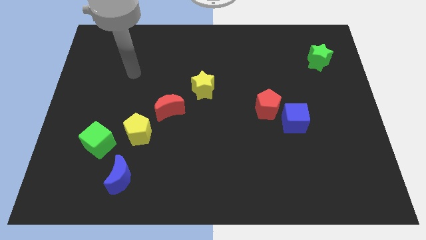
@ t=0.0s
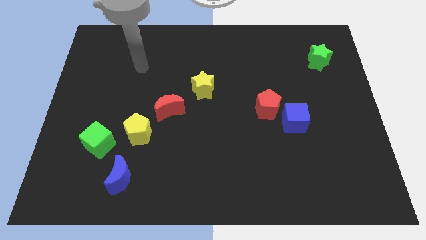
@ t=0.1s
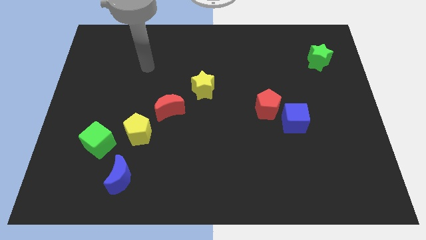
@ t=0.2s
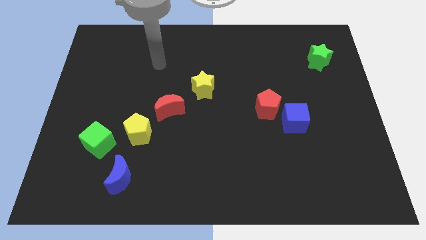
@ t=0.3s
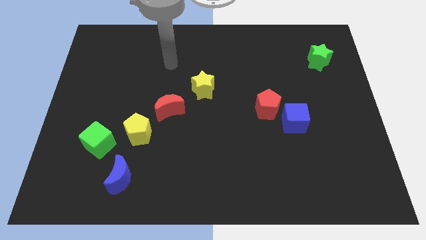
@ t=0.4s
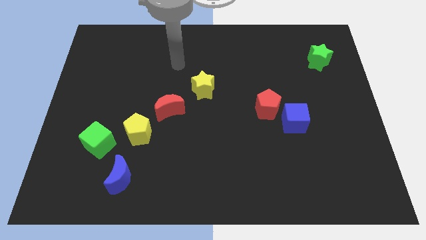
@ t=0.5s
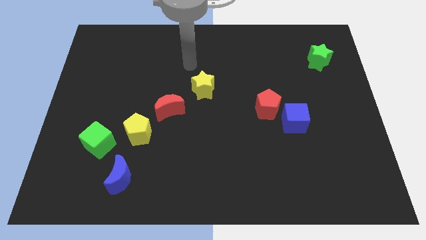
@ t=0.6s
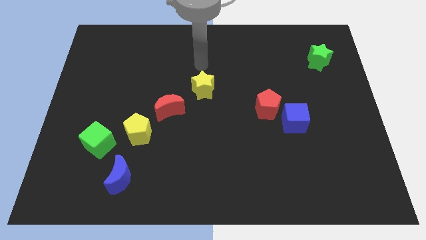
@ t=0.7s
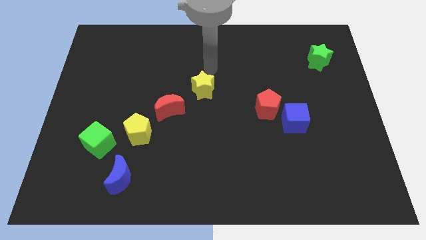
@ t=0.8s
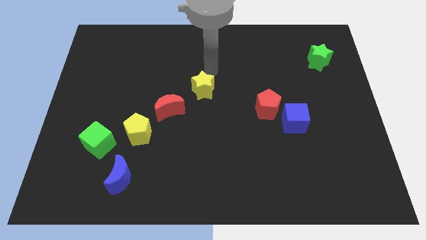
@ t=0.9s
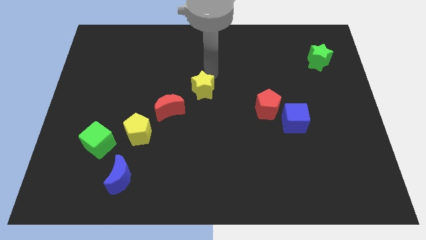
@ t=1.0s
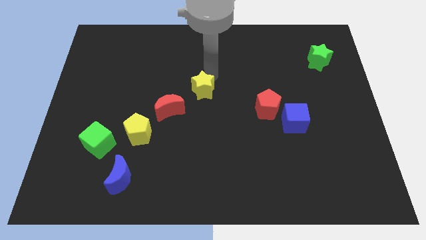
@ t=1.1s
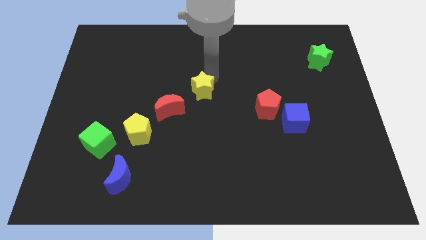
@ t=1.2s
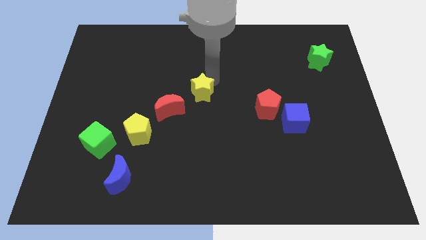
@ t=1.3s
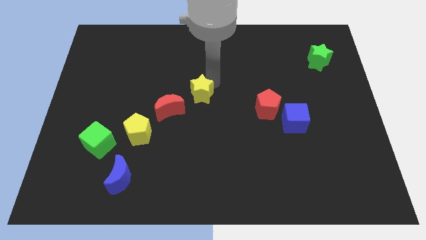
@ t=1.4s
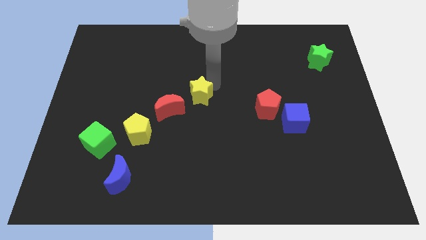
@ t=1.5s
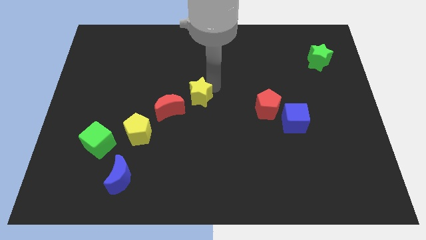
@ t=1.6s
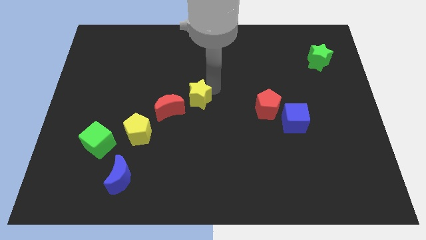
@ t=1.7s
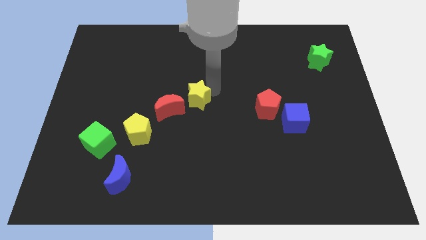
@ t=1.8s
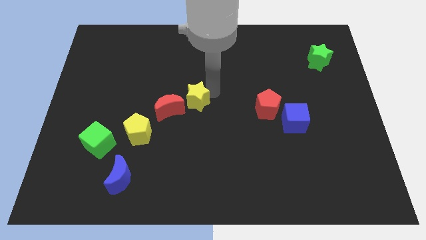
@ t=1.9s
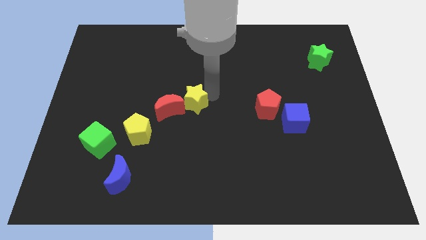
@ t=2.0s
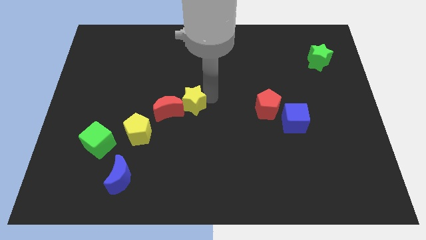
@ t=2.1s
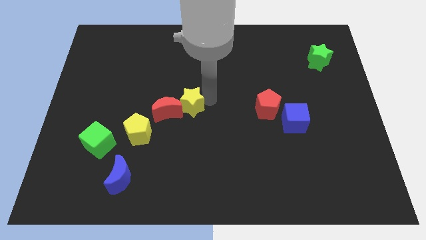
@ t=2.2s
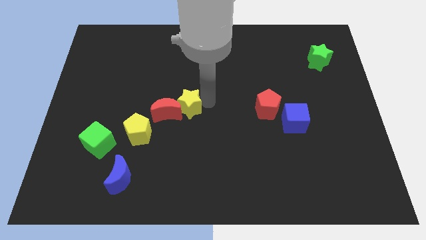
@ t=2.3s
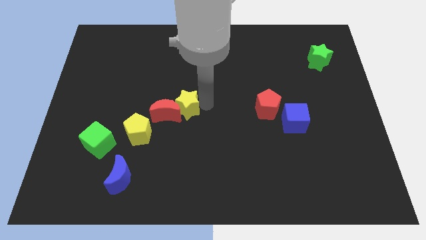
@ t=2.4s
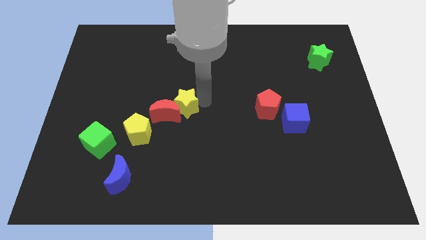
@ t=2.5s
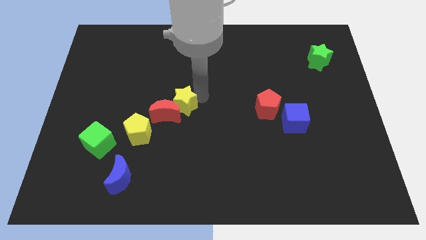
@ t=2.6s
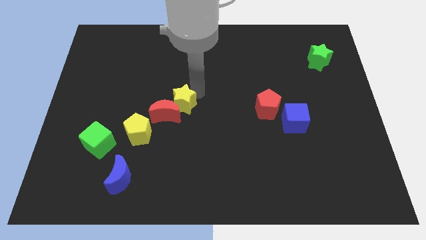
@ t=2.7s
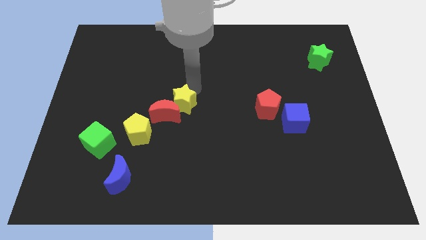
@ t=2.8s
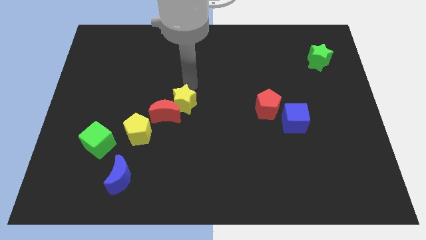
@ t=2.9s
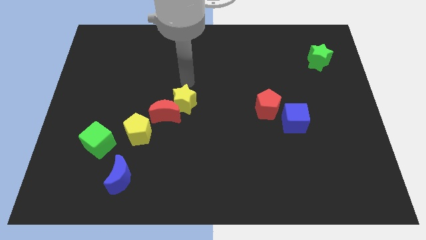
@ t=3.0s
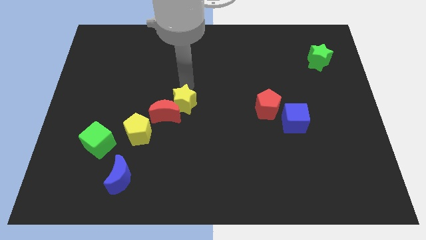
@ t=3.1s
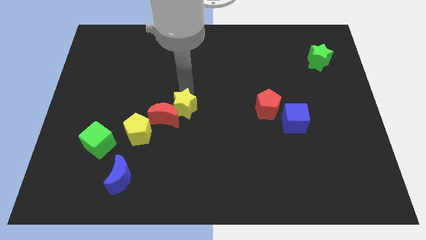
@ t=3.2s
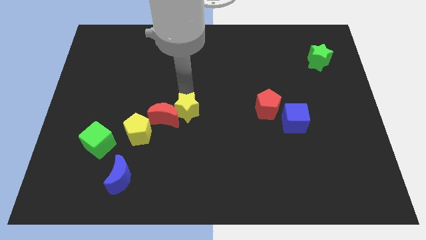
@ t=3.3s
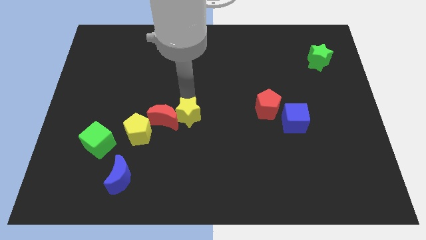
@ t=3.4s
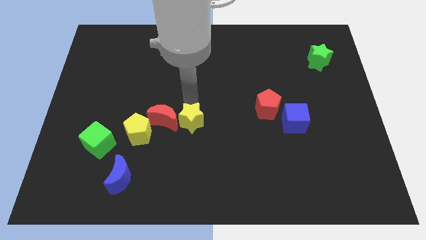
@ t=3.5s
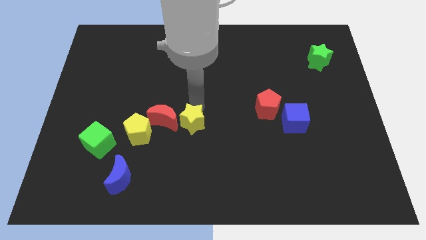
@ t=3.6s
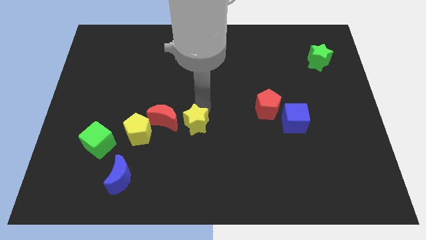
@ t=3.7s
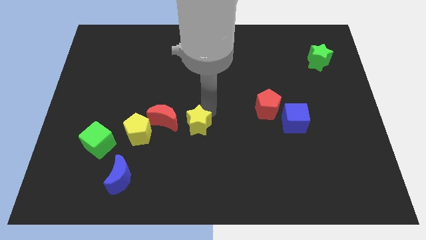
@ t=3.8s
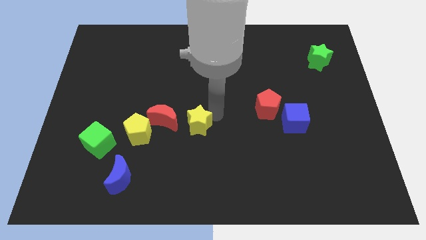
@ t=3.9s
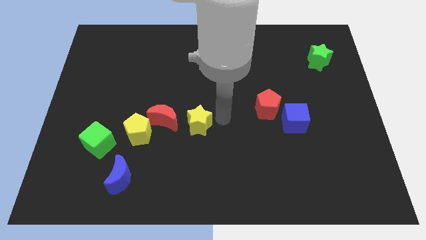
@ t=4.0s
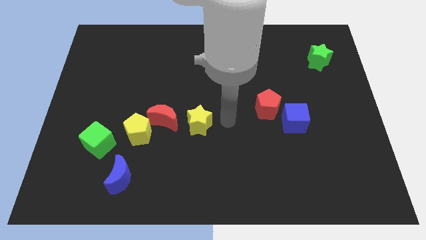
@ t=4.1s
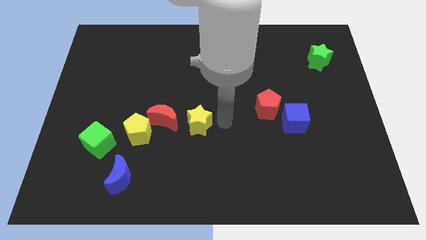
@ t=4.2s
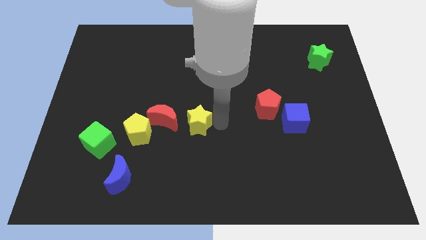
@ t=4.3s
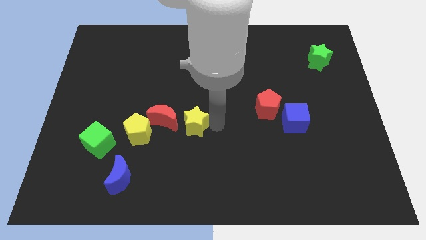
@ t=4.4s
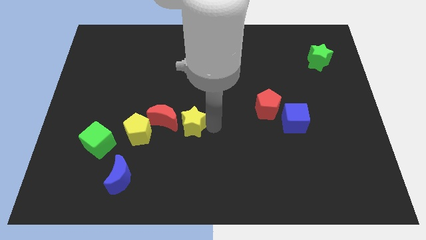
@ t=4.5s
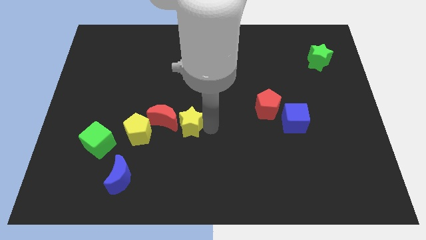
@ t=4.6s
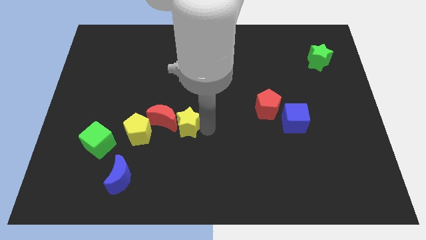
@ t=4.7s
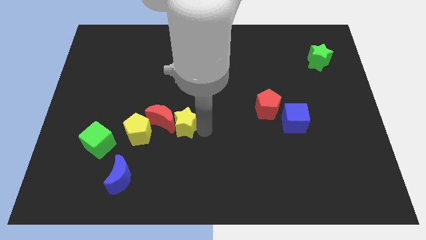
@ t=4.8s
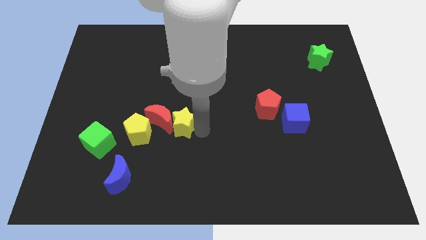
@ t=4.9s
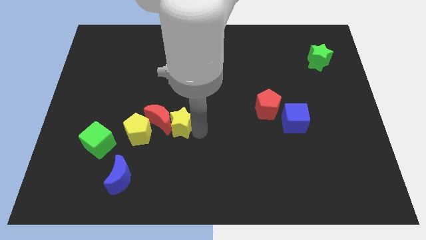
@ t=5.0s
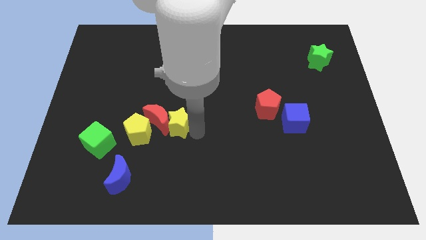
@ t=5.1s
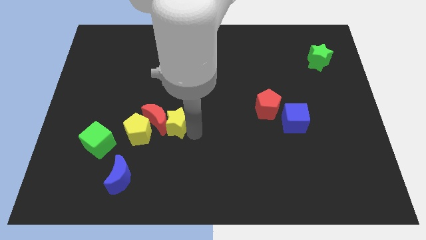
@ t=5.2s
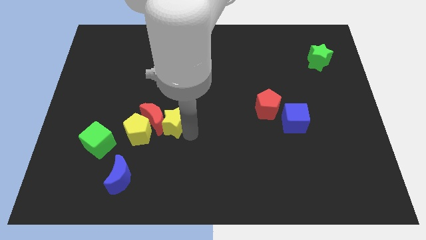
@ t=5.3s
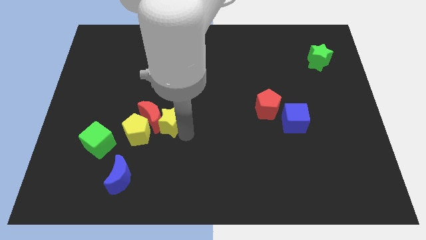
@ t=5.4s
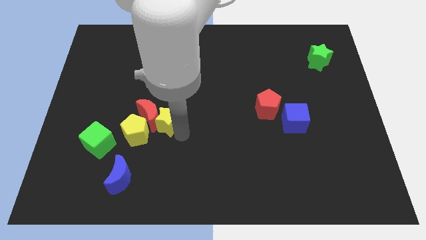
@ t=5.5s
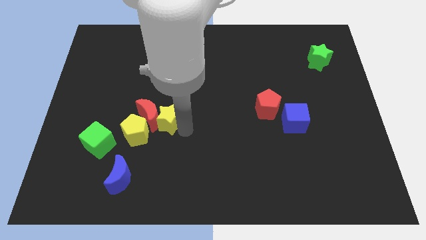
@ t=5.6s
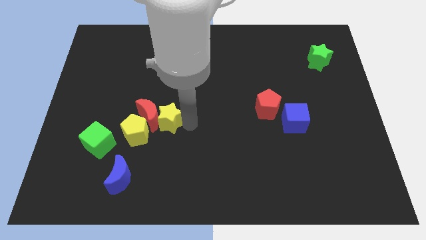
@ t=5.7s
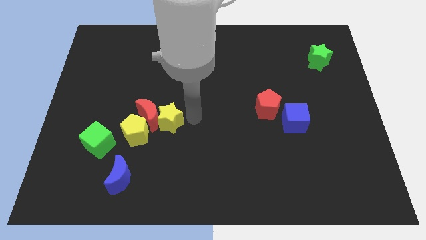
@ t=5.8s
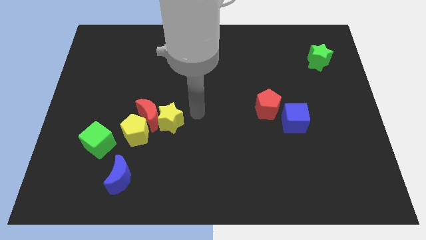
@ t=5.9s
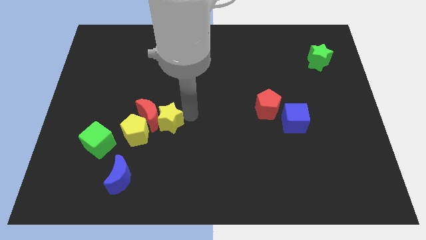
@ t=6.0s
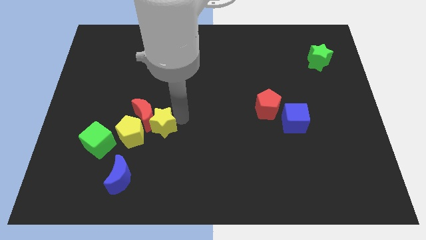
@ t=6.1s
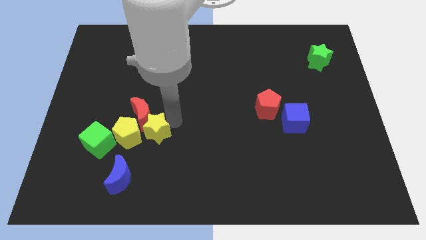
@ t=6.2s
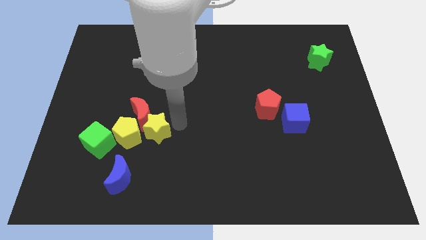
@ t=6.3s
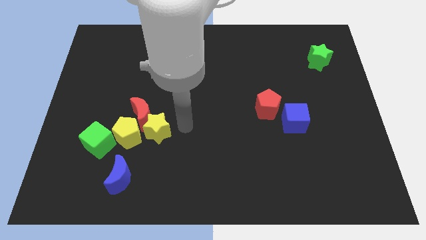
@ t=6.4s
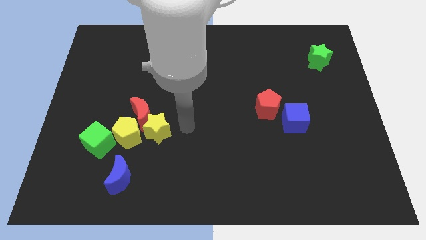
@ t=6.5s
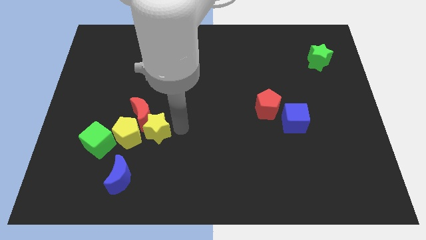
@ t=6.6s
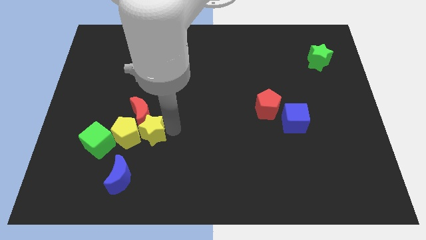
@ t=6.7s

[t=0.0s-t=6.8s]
move the yellow star towards the yellow pentagon

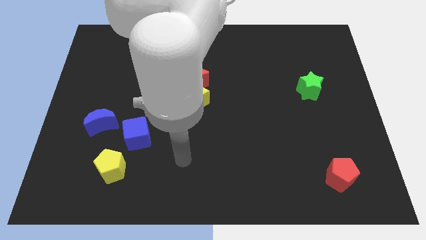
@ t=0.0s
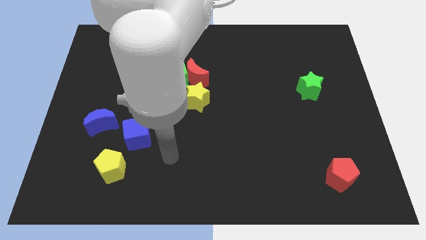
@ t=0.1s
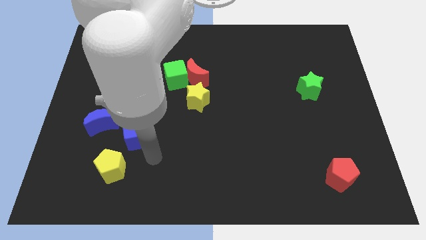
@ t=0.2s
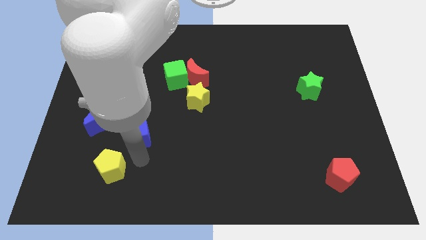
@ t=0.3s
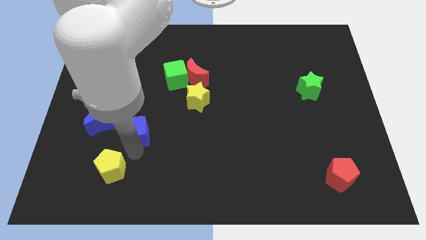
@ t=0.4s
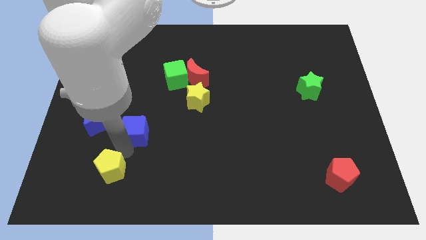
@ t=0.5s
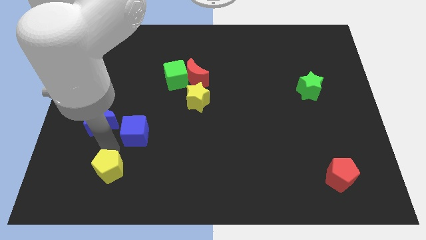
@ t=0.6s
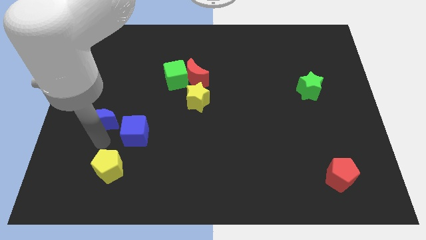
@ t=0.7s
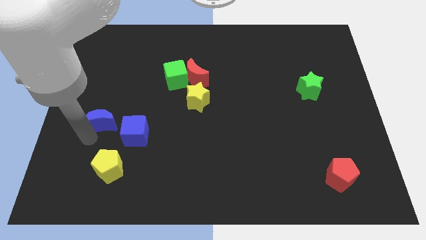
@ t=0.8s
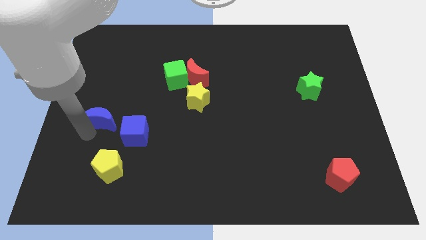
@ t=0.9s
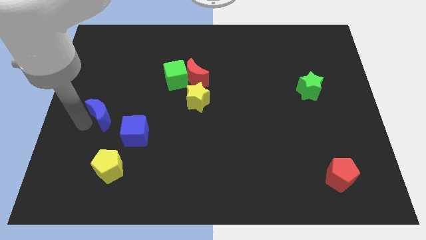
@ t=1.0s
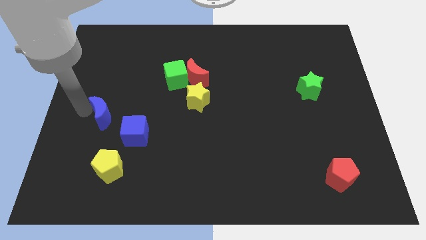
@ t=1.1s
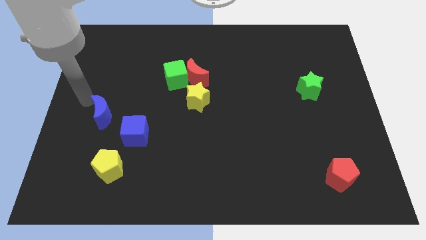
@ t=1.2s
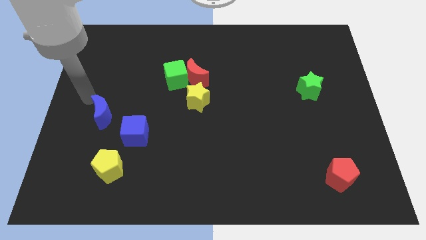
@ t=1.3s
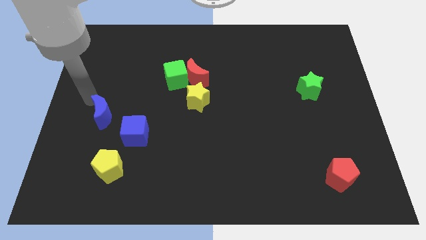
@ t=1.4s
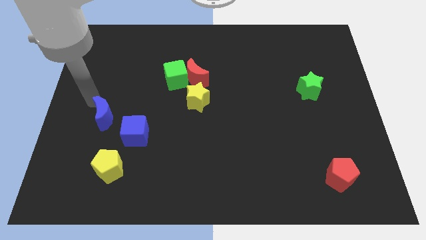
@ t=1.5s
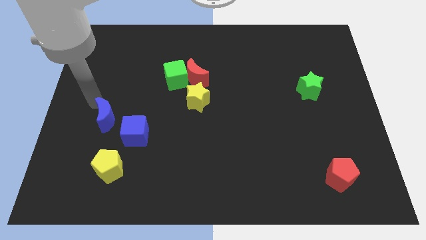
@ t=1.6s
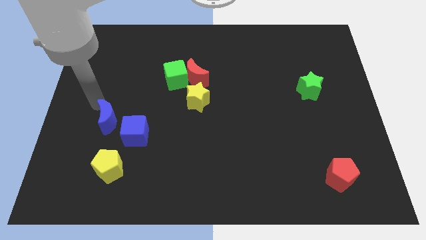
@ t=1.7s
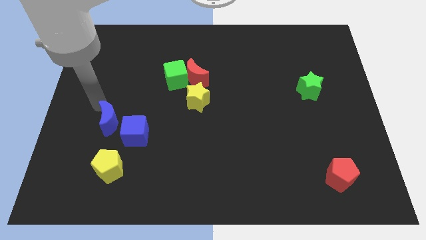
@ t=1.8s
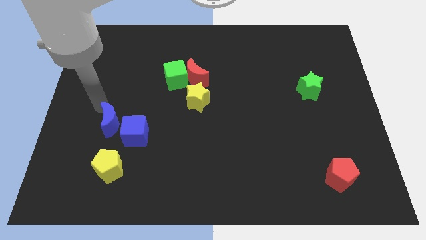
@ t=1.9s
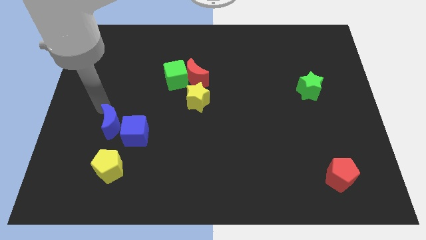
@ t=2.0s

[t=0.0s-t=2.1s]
push the blue moon towards the blue cube
